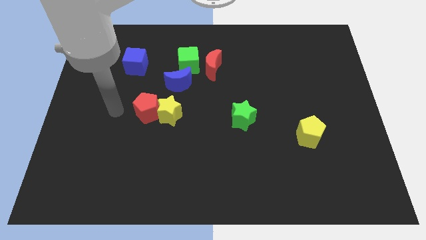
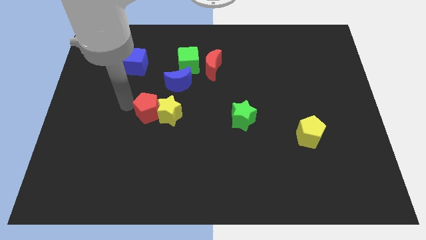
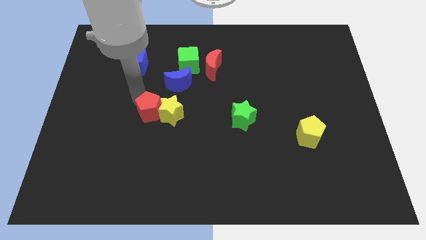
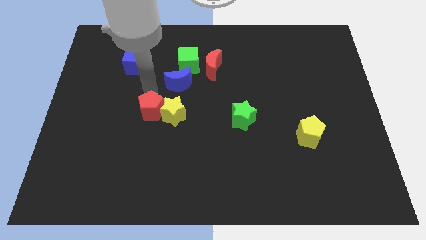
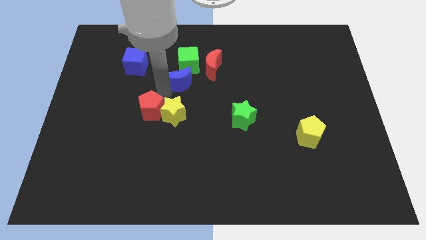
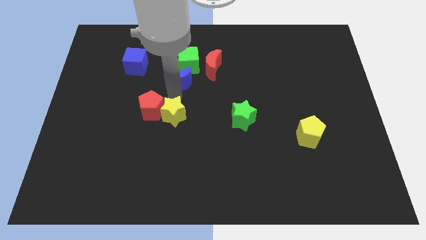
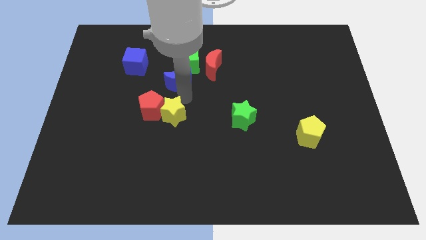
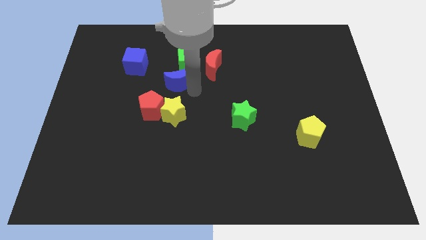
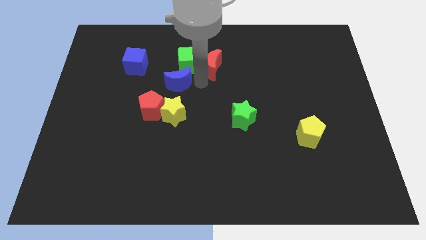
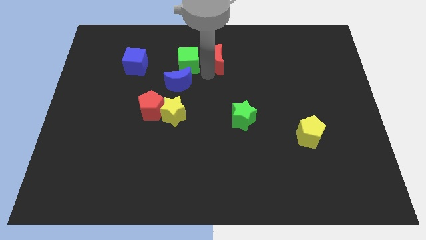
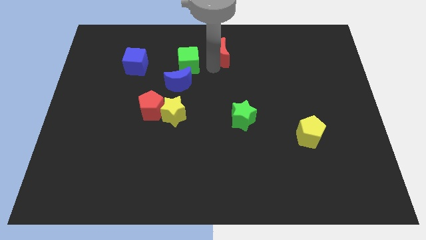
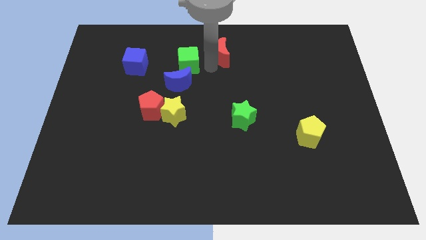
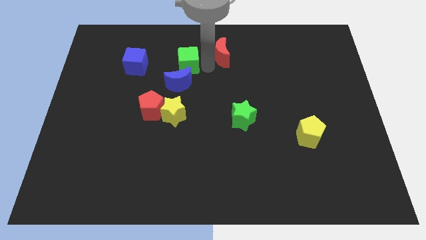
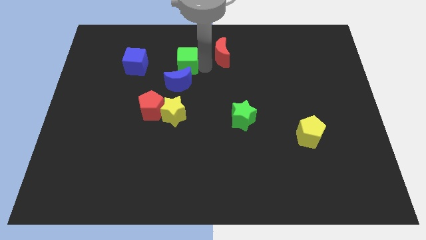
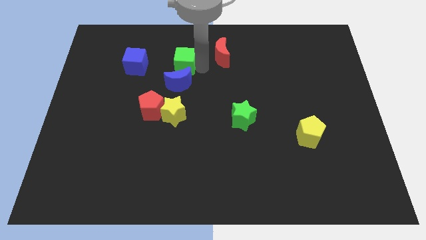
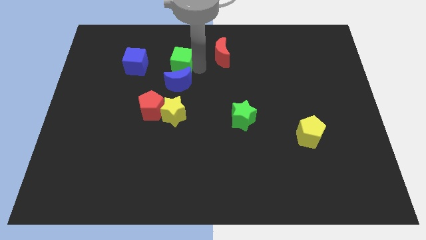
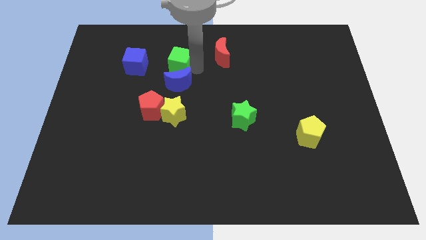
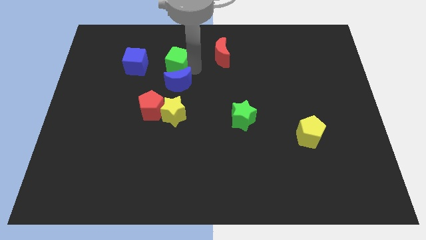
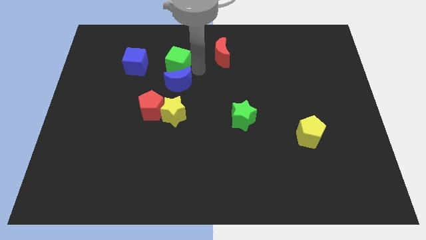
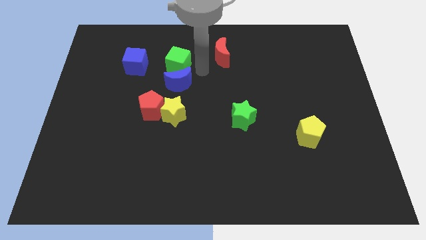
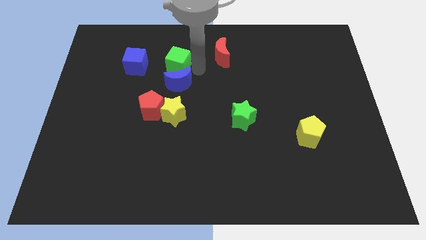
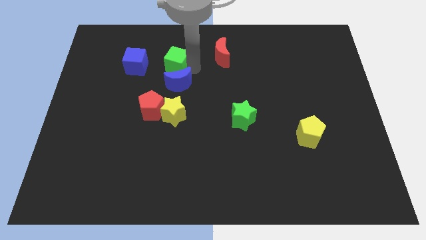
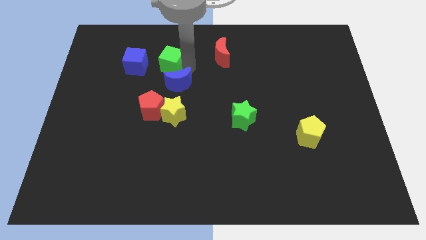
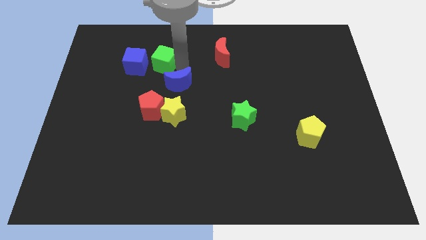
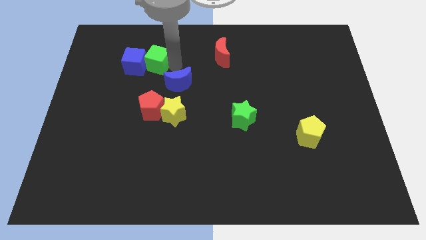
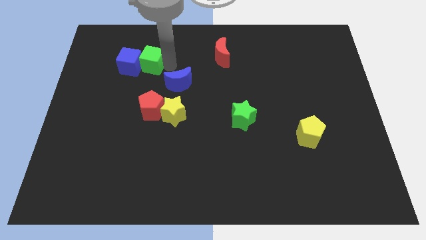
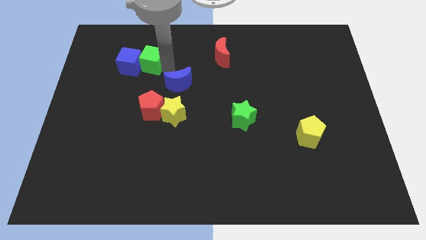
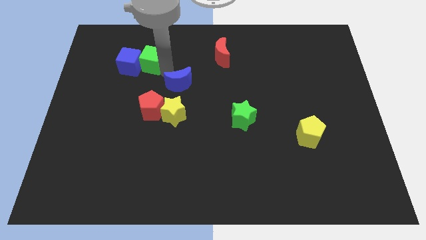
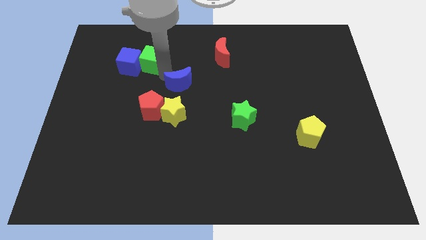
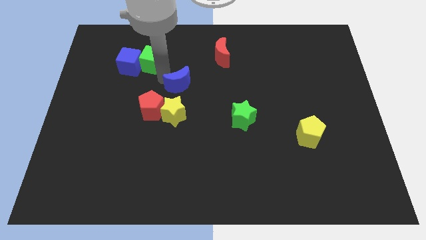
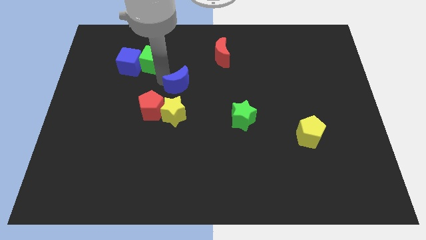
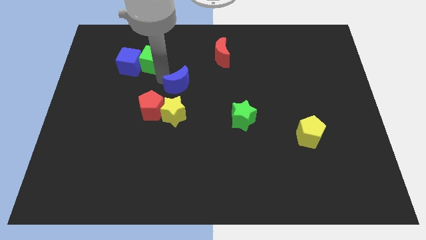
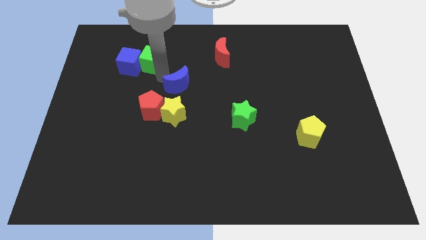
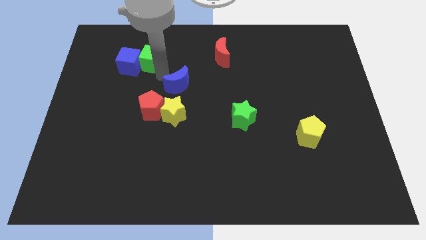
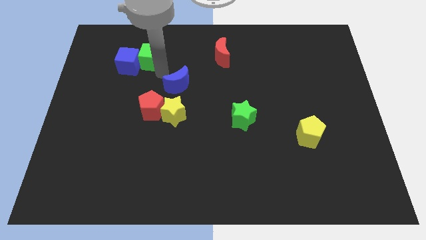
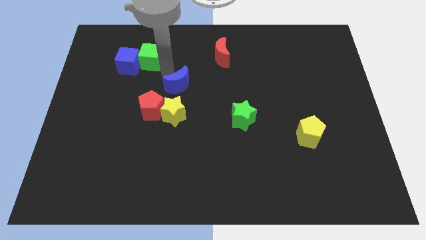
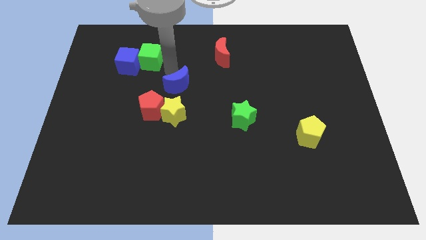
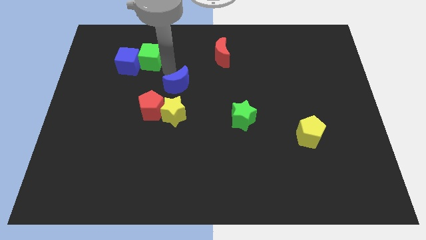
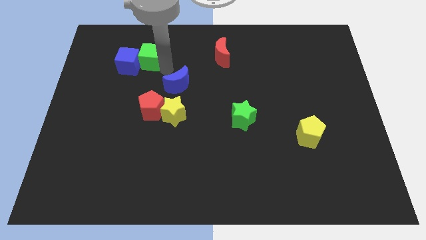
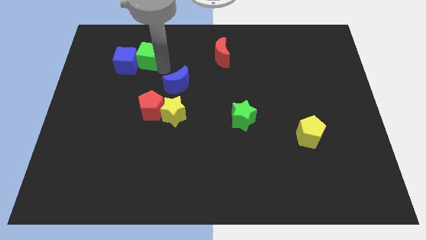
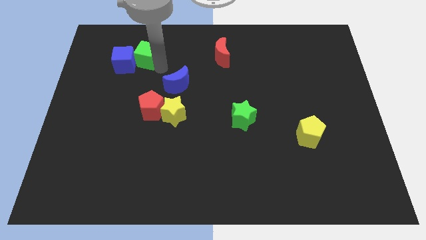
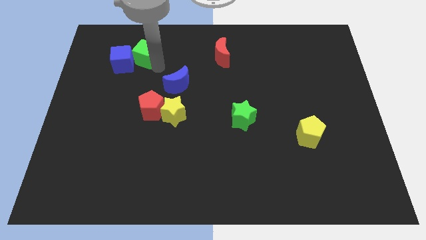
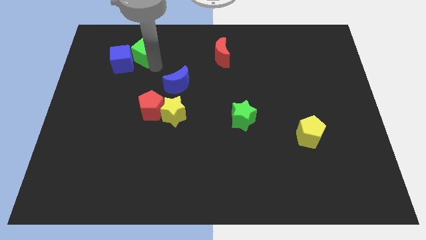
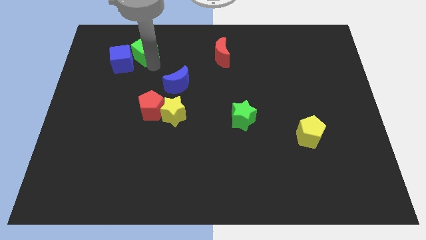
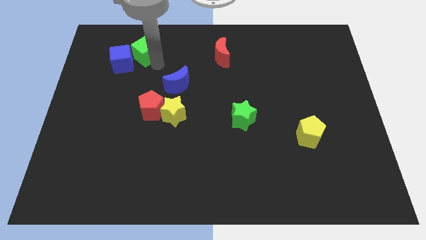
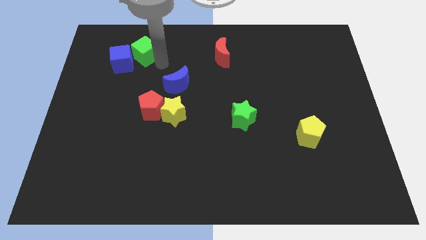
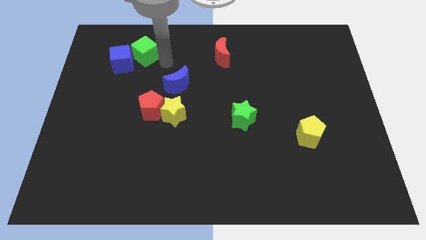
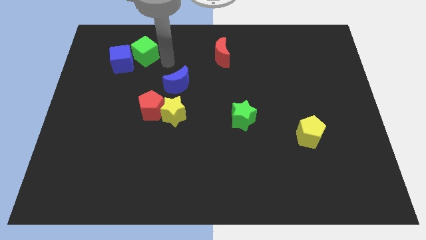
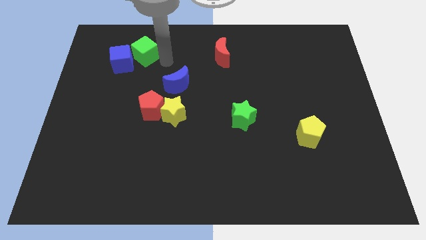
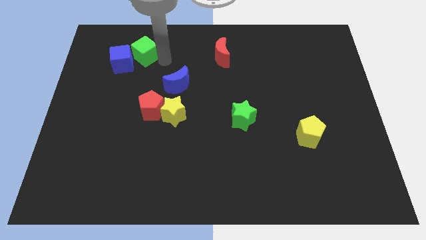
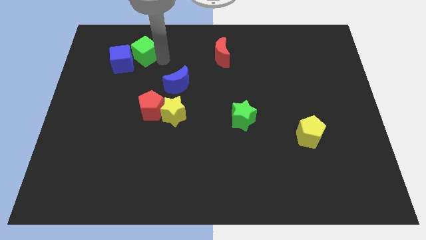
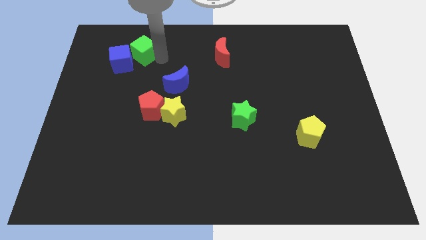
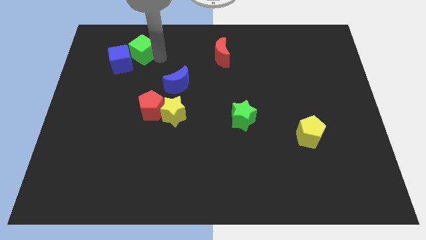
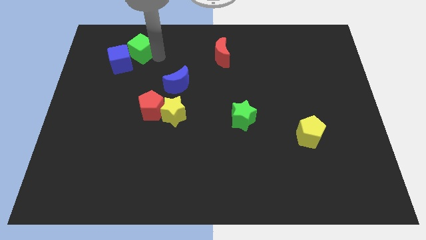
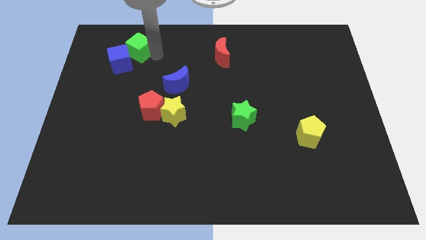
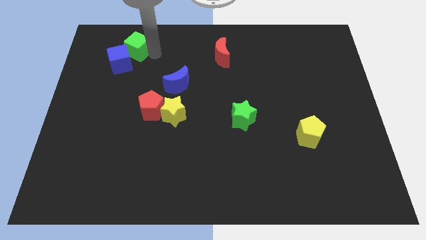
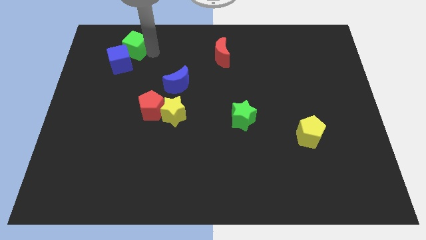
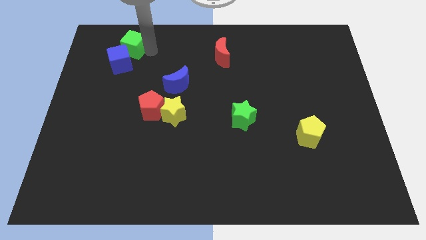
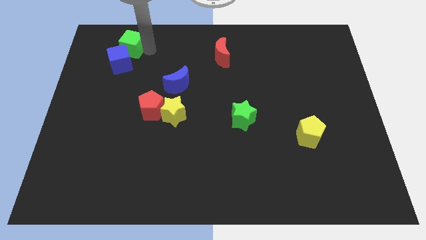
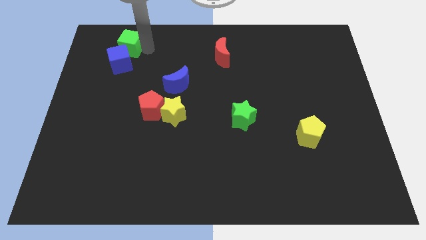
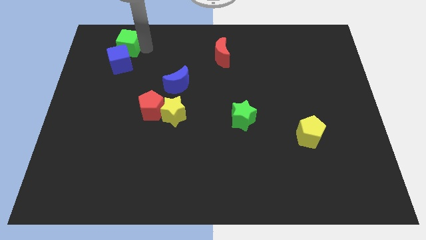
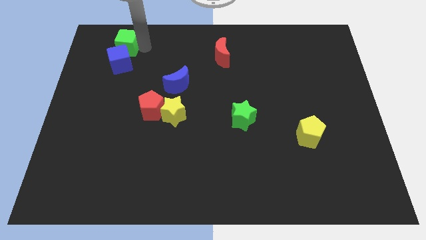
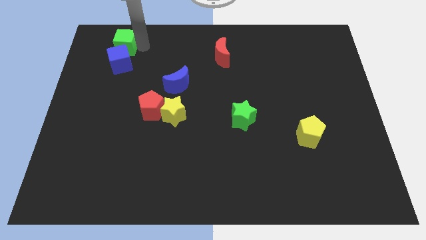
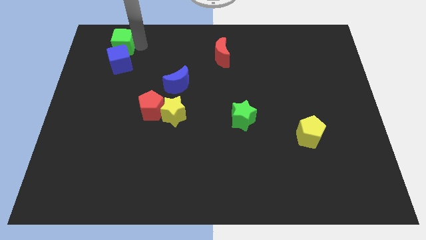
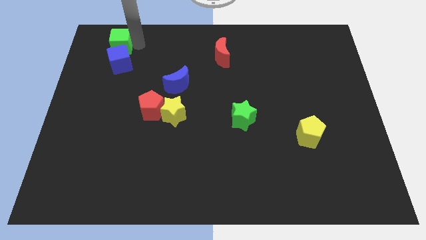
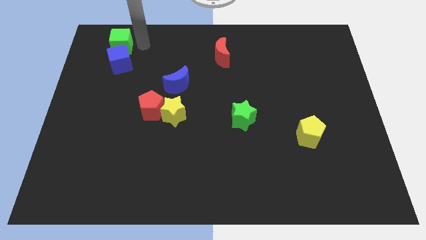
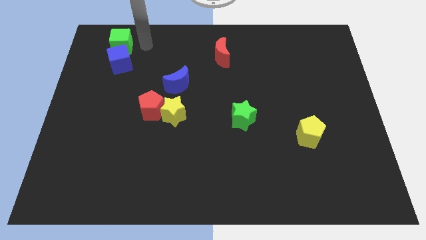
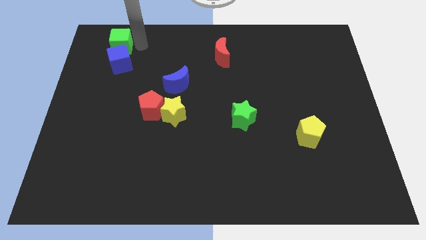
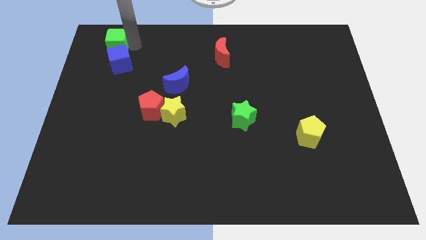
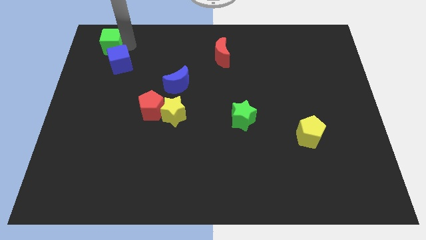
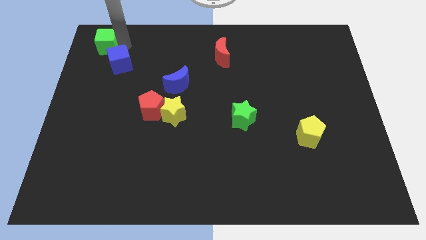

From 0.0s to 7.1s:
slide the green cube to the top left corner
